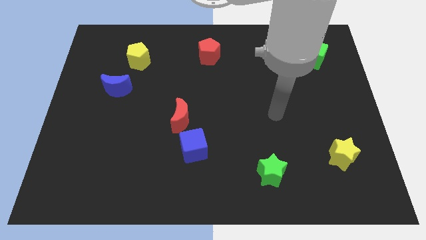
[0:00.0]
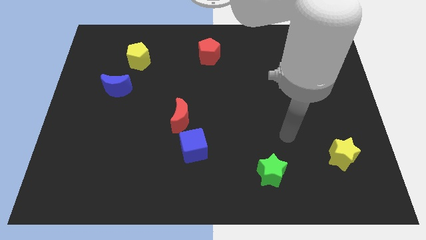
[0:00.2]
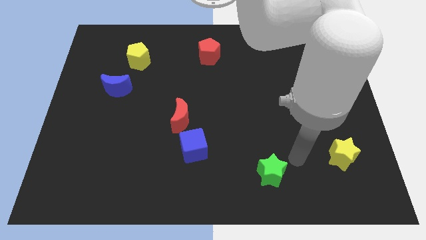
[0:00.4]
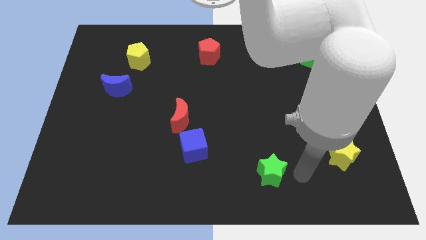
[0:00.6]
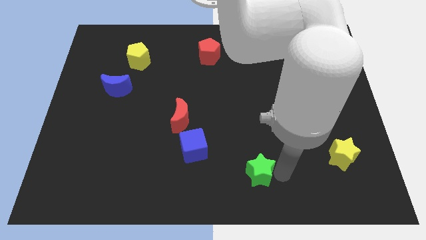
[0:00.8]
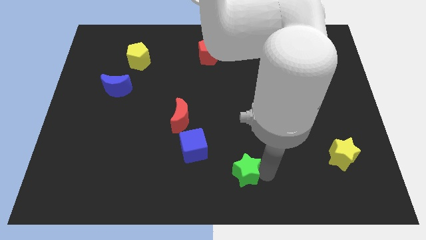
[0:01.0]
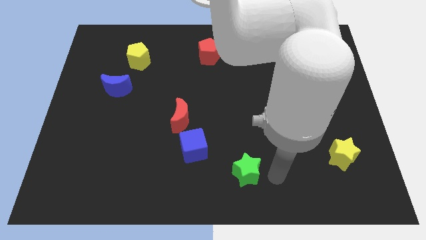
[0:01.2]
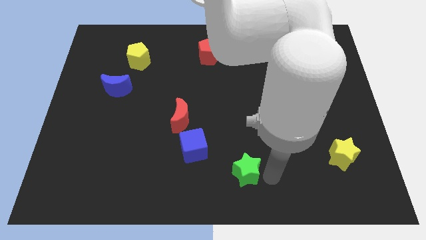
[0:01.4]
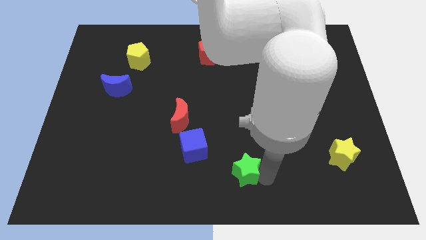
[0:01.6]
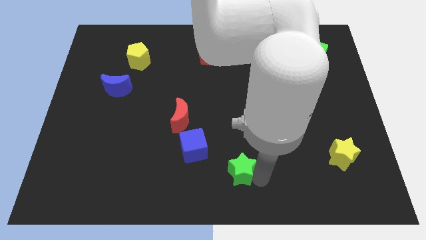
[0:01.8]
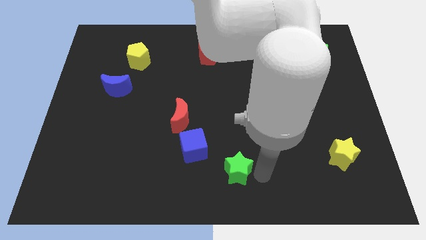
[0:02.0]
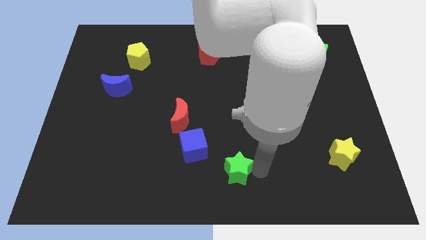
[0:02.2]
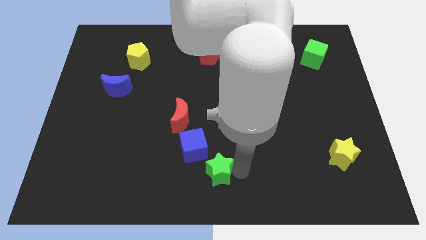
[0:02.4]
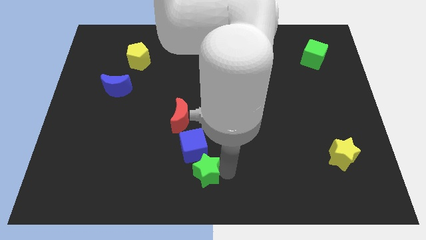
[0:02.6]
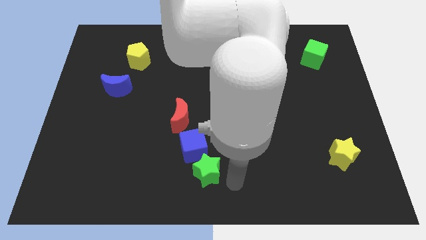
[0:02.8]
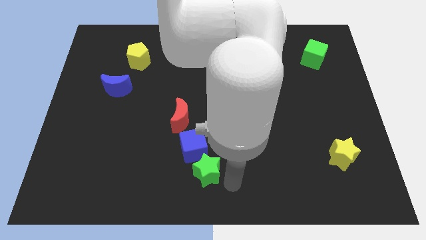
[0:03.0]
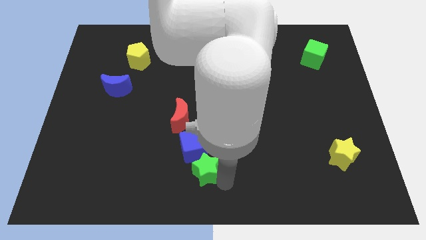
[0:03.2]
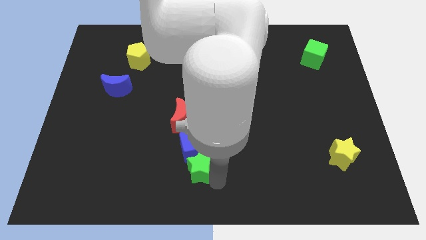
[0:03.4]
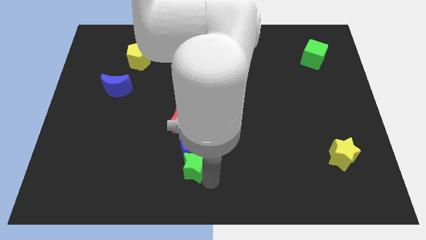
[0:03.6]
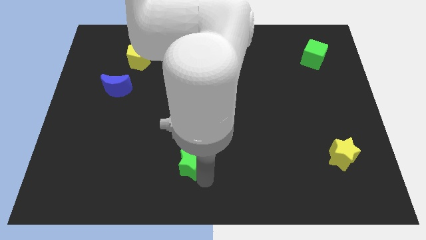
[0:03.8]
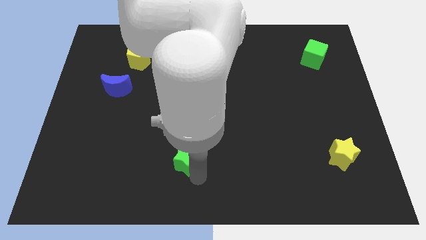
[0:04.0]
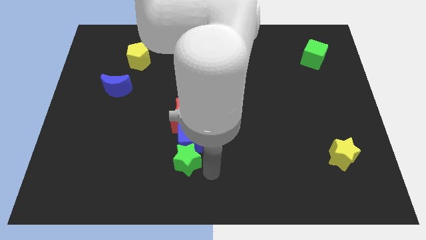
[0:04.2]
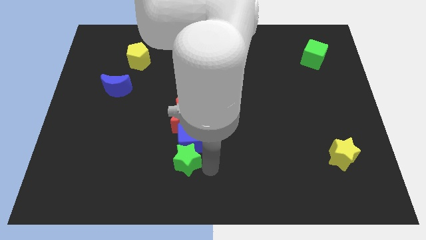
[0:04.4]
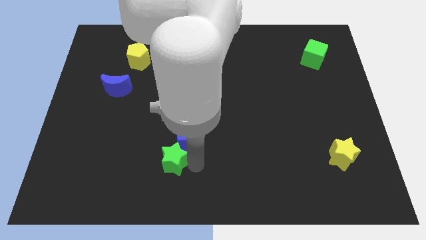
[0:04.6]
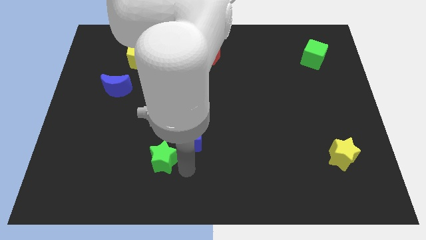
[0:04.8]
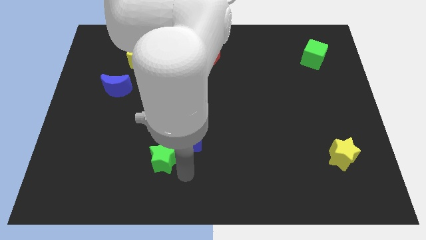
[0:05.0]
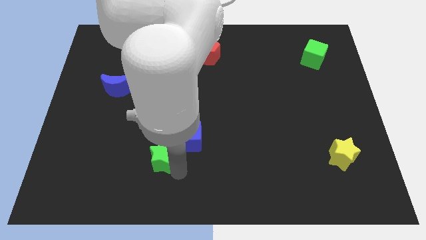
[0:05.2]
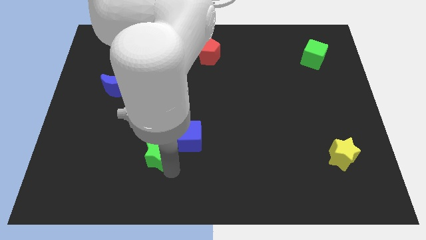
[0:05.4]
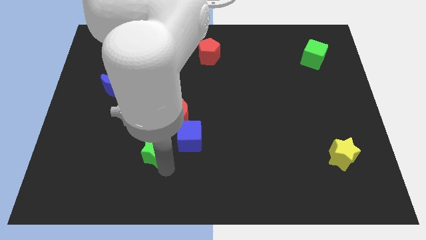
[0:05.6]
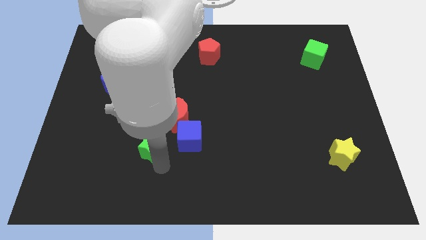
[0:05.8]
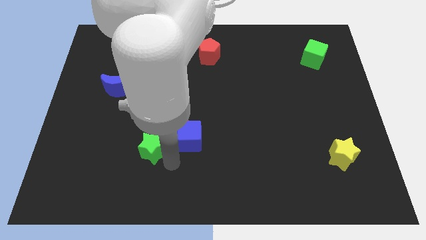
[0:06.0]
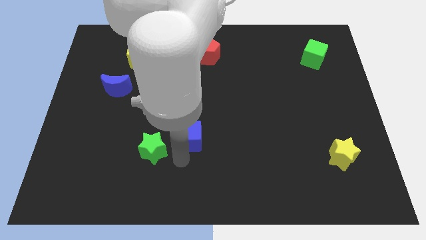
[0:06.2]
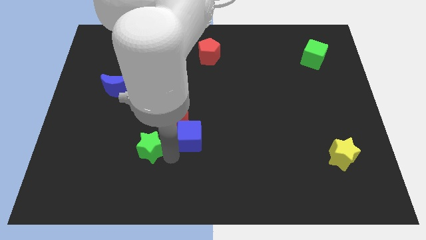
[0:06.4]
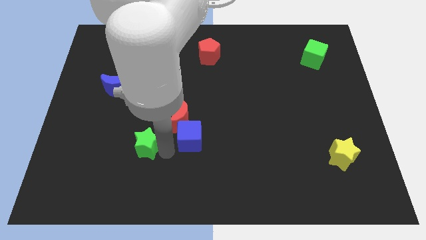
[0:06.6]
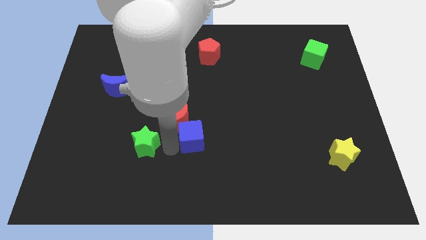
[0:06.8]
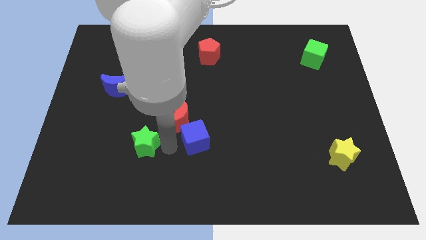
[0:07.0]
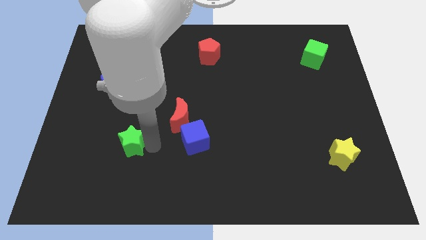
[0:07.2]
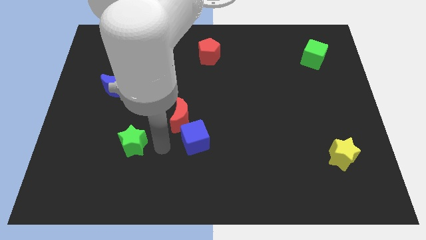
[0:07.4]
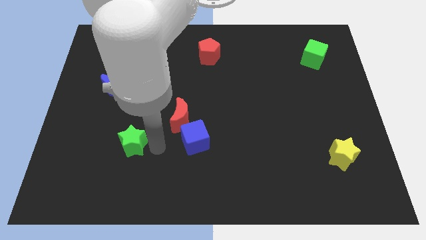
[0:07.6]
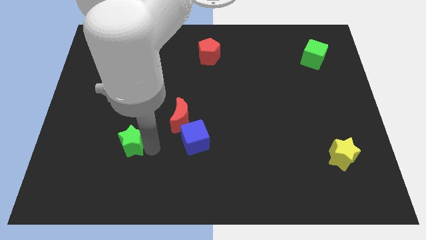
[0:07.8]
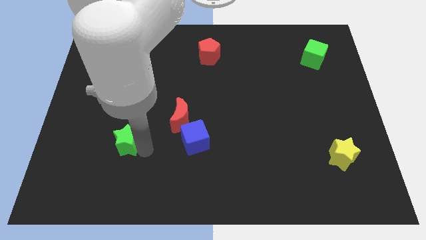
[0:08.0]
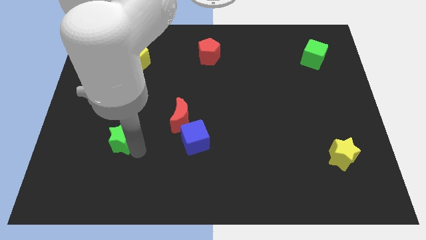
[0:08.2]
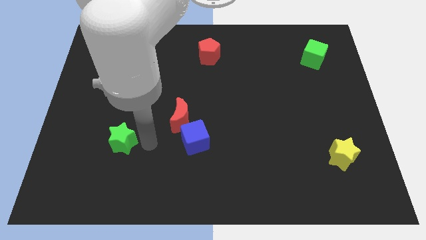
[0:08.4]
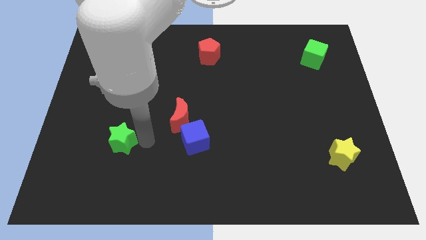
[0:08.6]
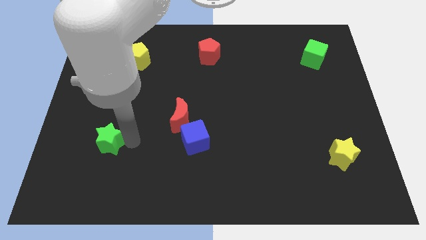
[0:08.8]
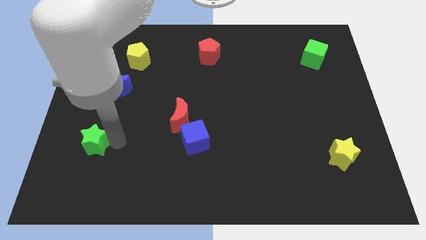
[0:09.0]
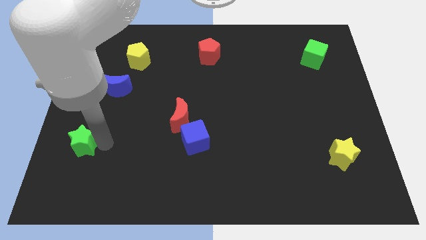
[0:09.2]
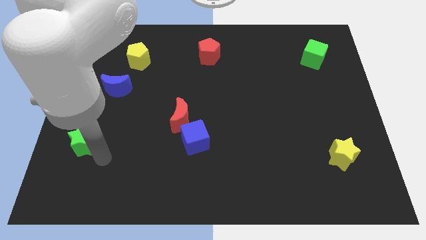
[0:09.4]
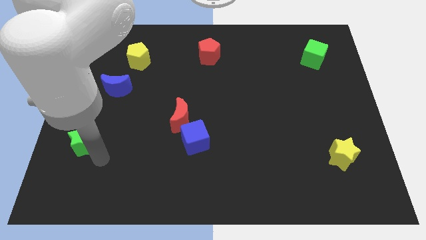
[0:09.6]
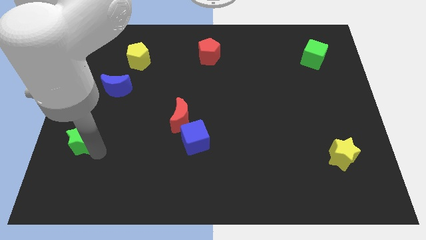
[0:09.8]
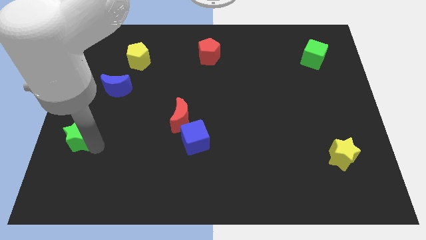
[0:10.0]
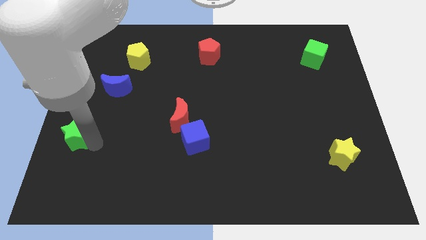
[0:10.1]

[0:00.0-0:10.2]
push the green star to the left side of the board

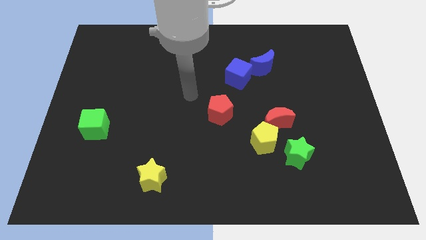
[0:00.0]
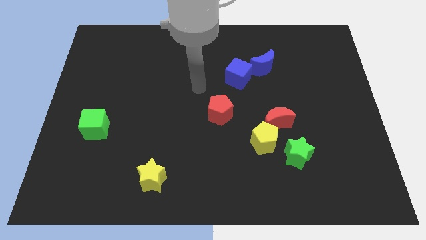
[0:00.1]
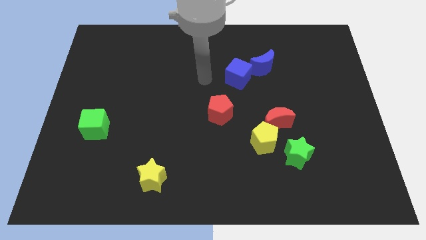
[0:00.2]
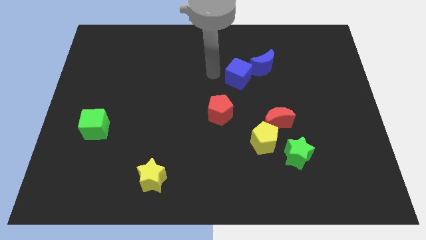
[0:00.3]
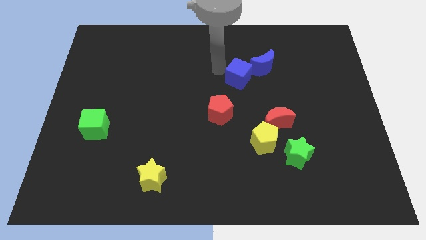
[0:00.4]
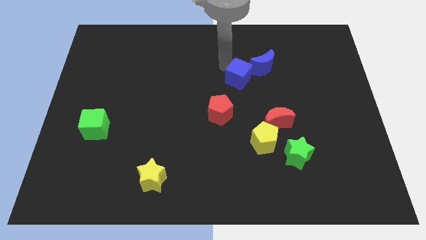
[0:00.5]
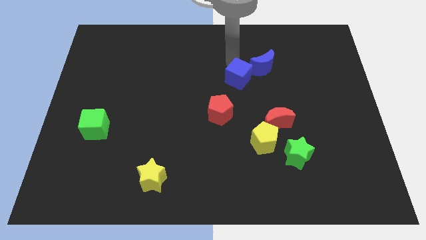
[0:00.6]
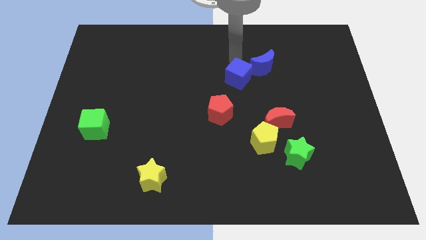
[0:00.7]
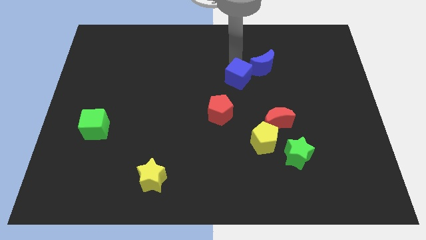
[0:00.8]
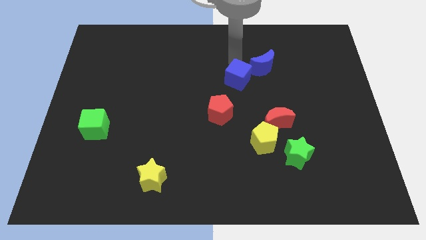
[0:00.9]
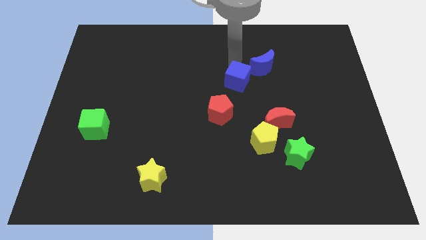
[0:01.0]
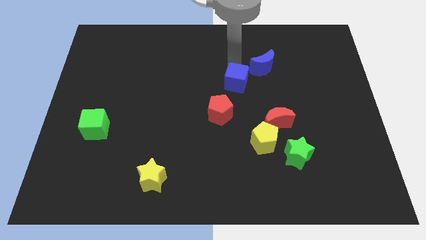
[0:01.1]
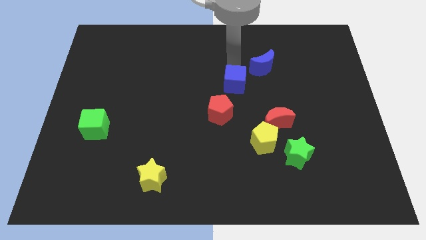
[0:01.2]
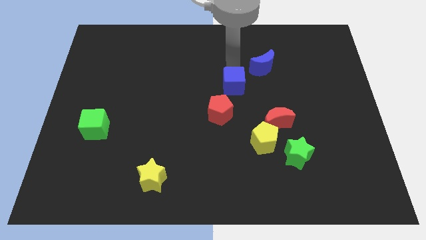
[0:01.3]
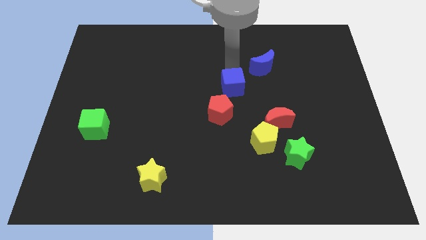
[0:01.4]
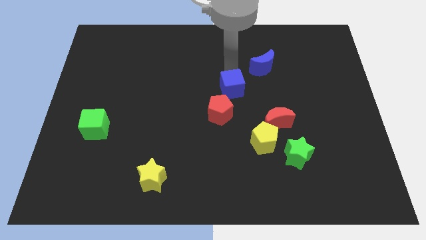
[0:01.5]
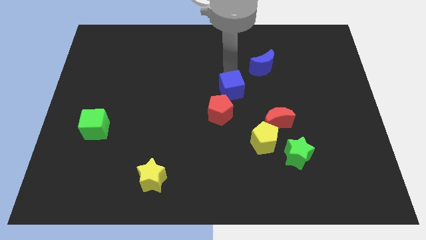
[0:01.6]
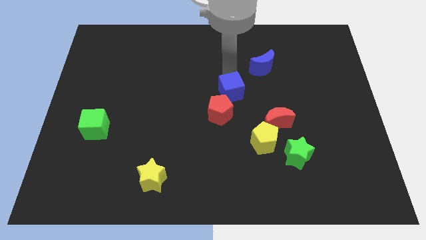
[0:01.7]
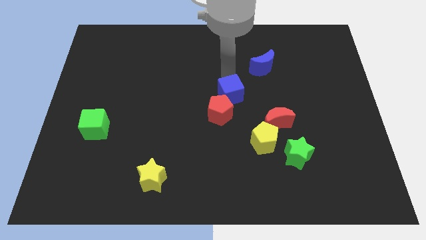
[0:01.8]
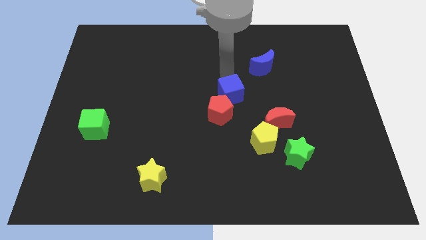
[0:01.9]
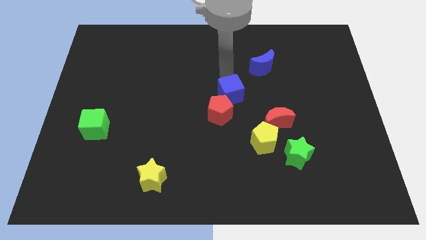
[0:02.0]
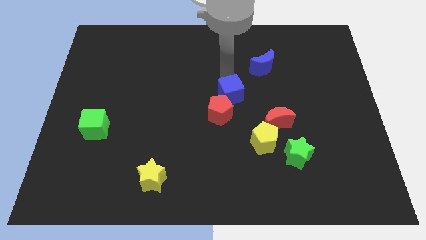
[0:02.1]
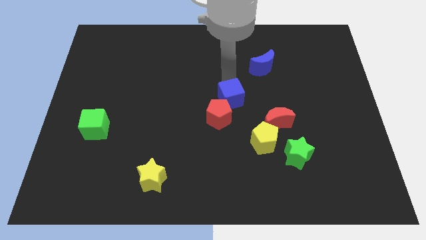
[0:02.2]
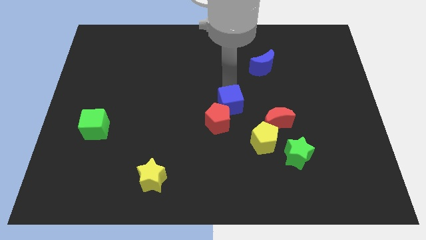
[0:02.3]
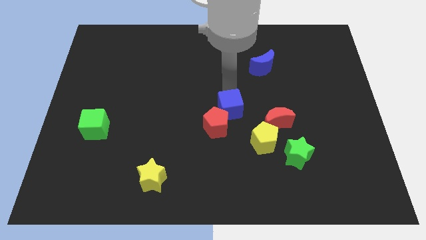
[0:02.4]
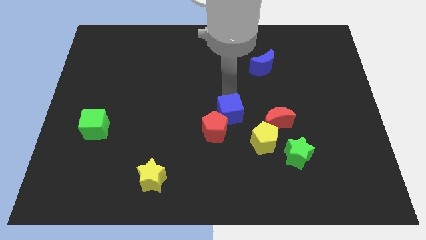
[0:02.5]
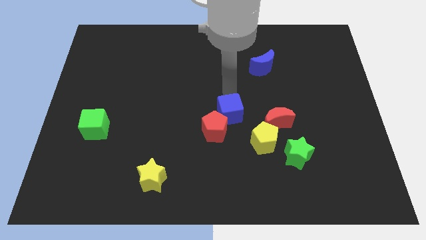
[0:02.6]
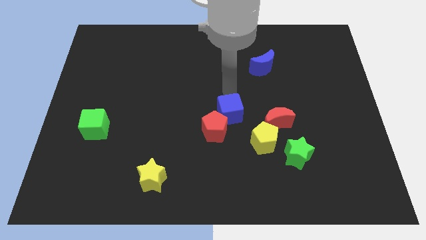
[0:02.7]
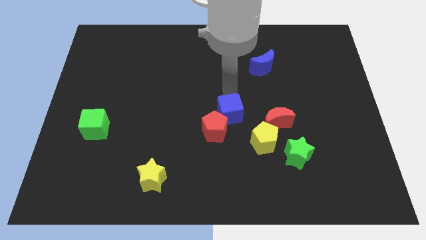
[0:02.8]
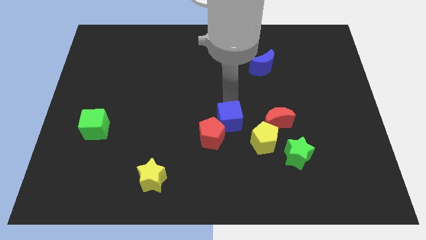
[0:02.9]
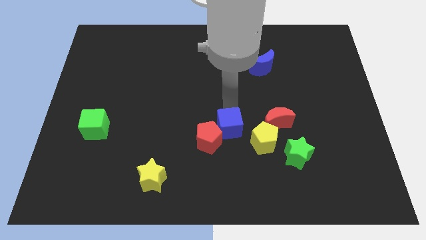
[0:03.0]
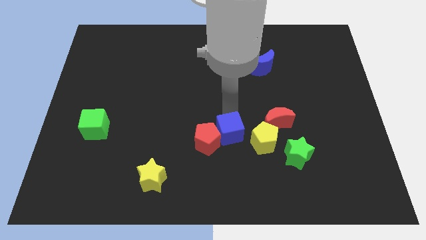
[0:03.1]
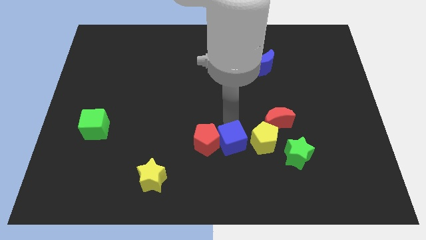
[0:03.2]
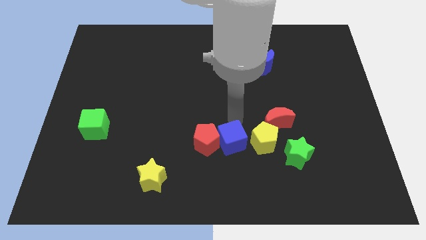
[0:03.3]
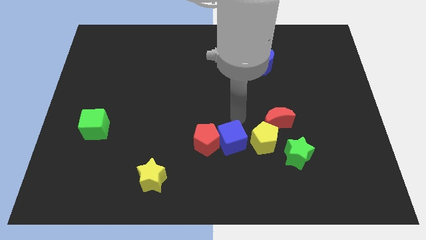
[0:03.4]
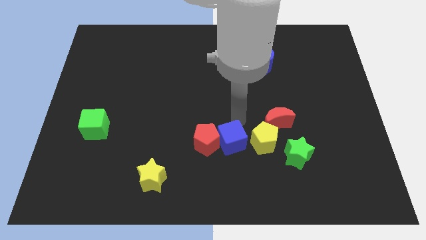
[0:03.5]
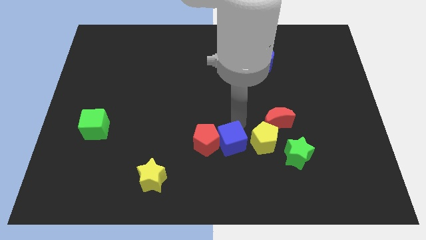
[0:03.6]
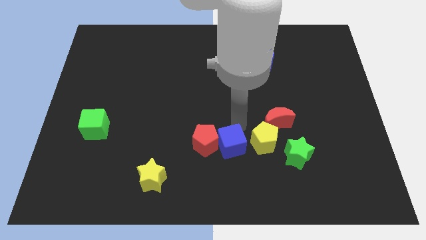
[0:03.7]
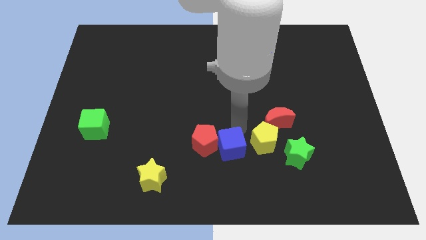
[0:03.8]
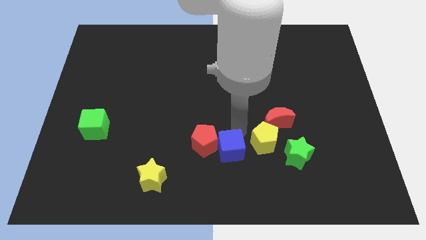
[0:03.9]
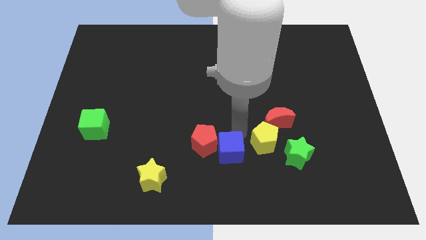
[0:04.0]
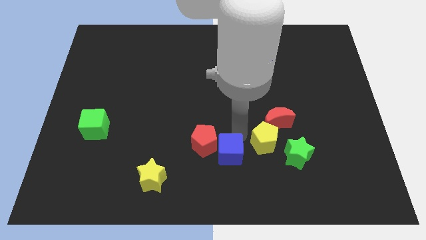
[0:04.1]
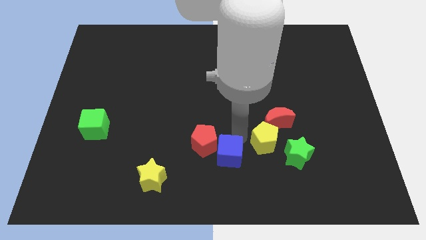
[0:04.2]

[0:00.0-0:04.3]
move the blue cube to the bottom side
